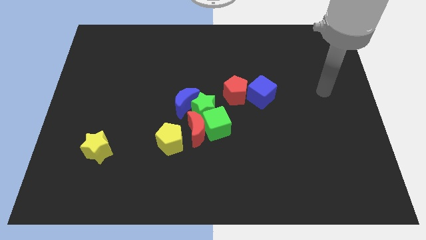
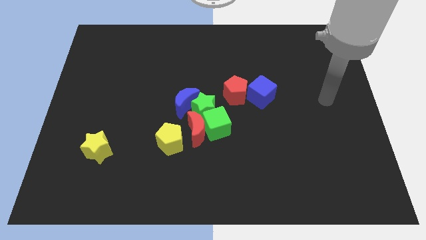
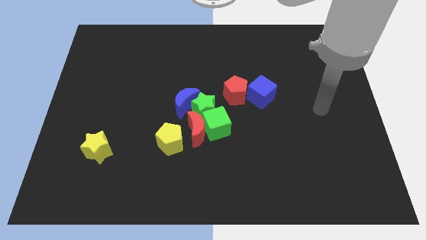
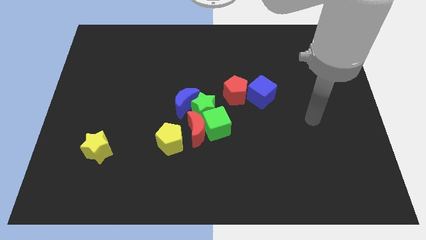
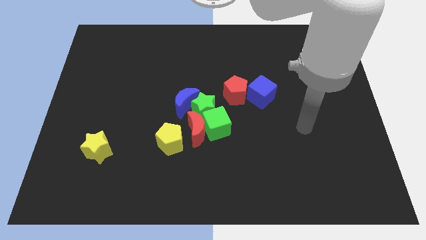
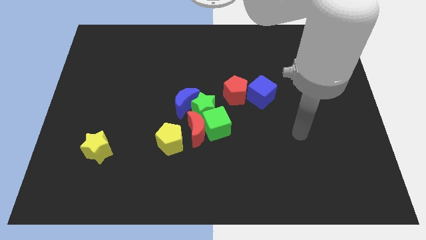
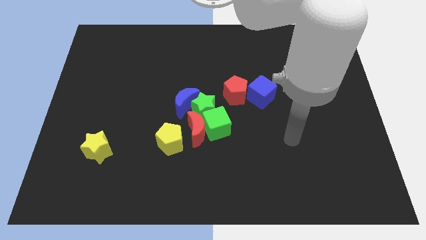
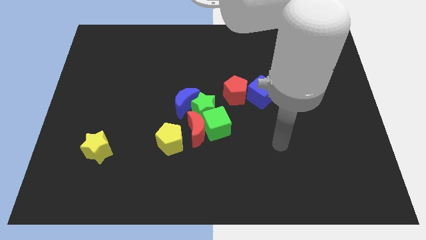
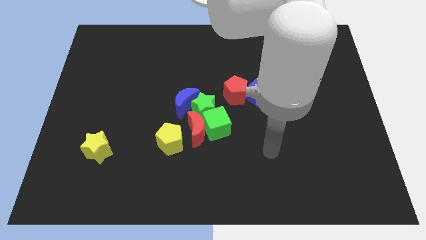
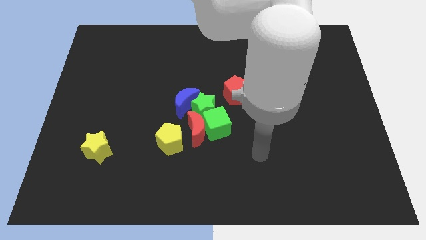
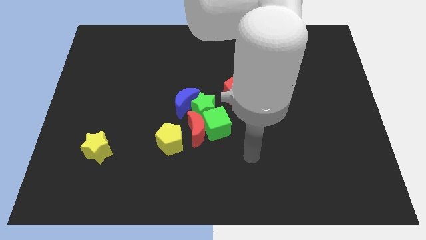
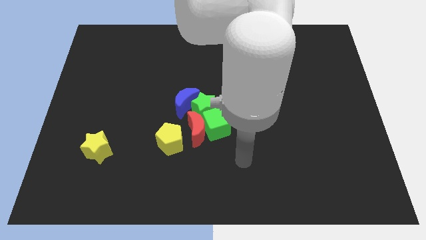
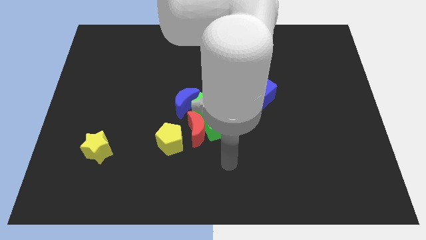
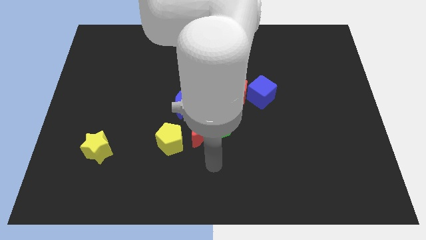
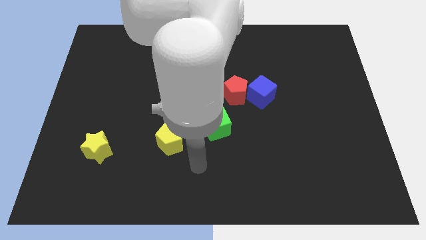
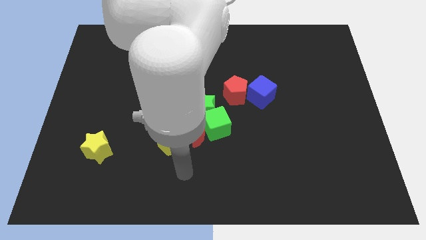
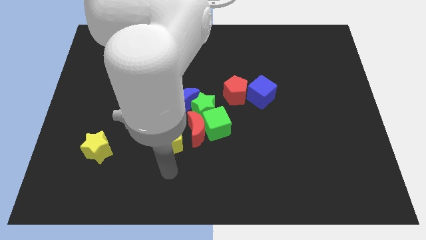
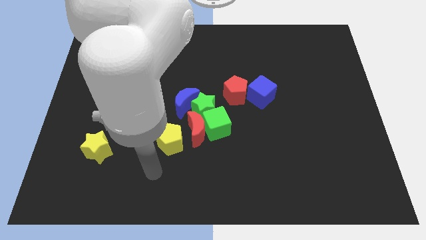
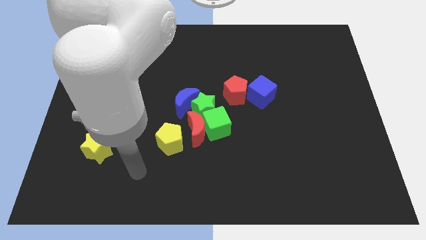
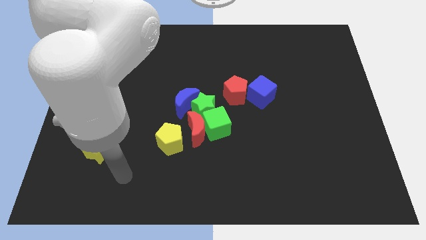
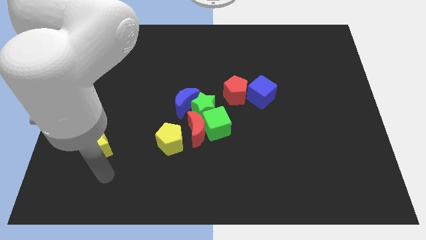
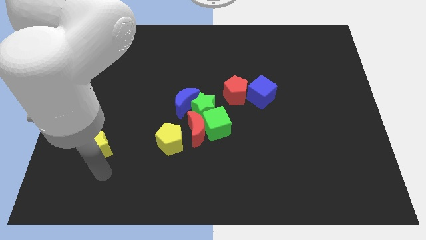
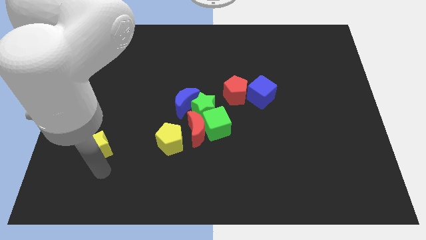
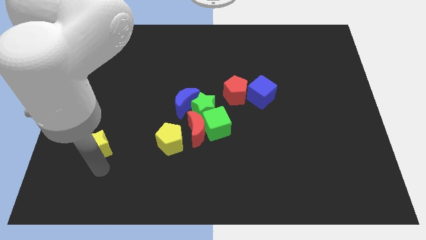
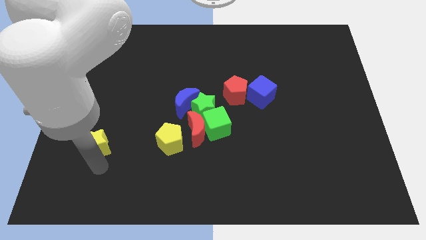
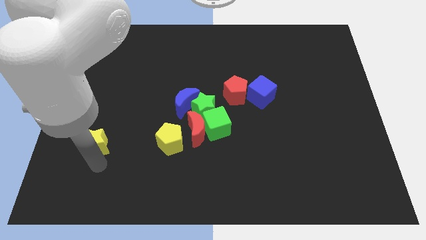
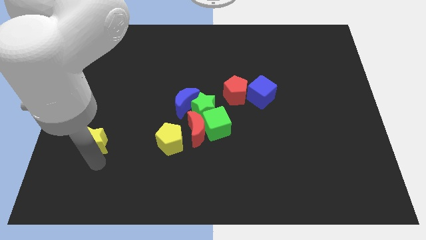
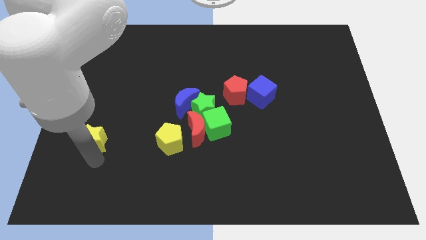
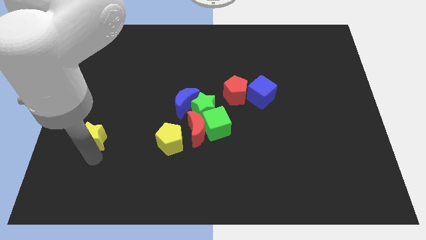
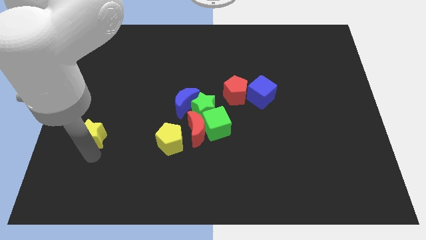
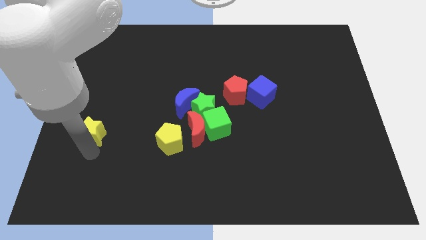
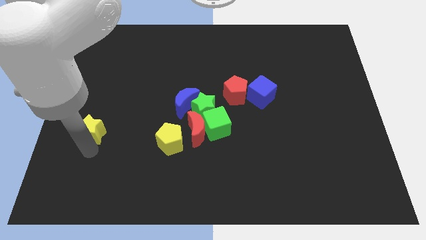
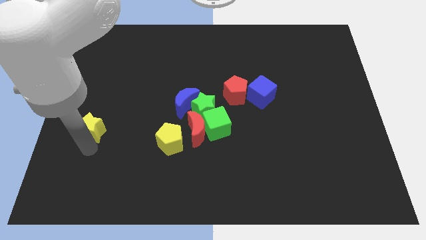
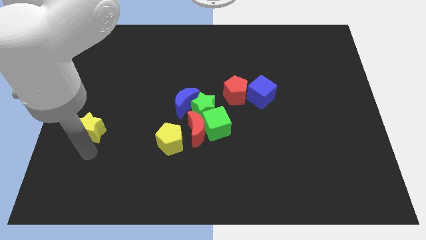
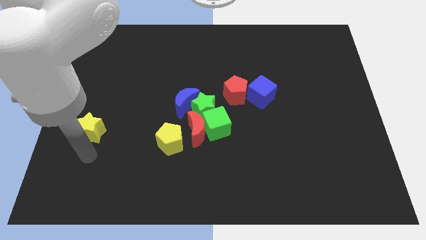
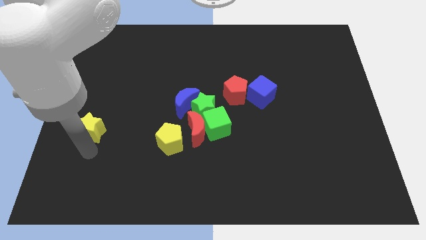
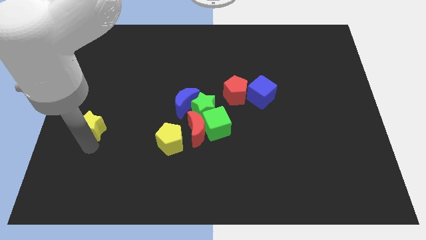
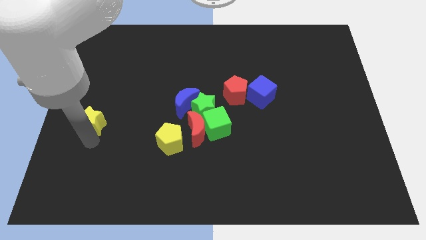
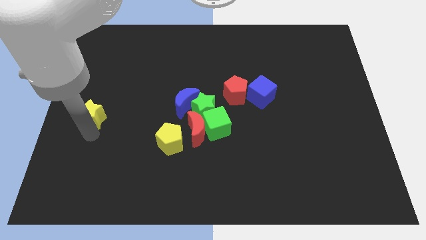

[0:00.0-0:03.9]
push the yellow star upwards a bit

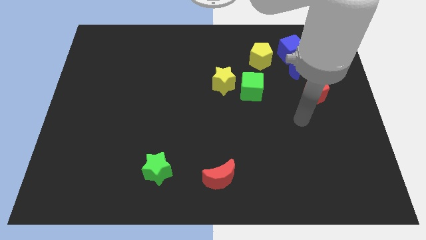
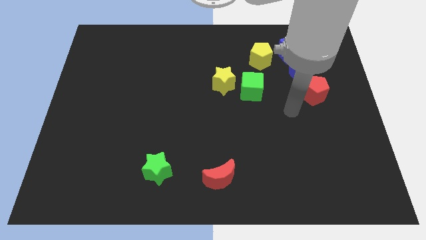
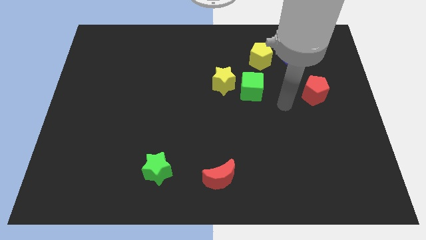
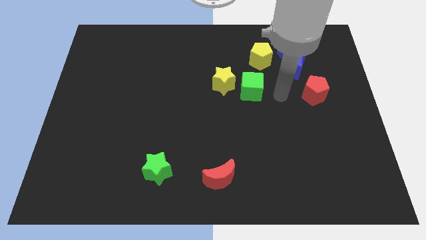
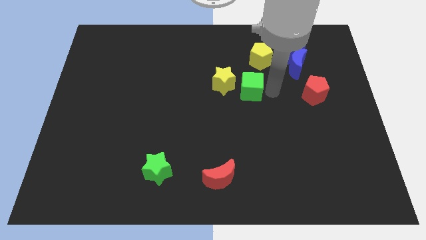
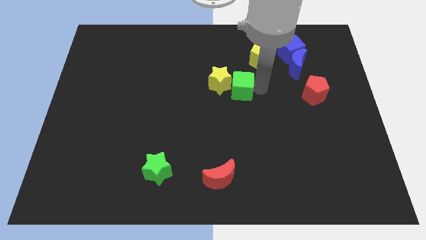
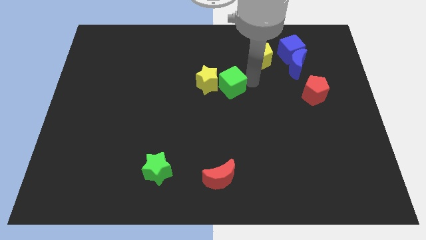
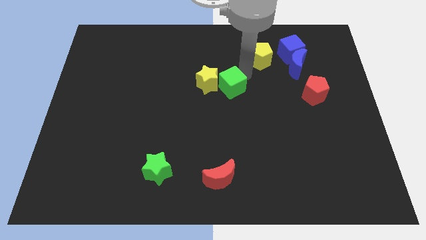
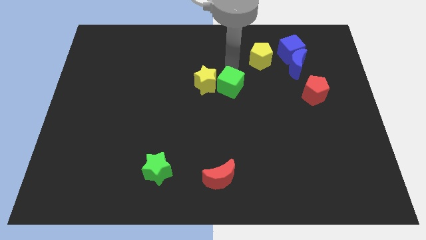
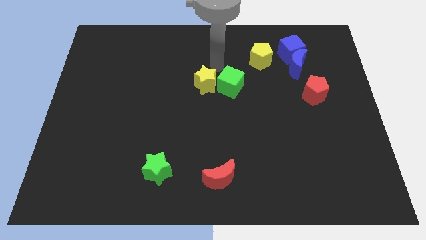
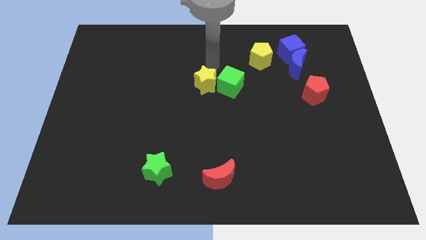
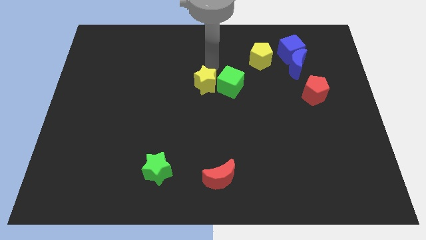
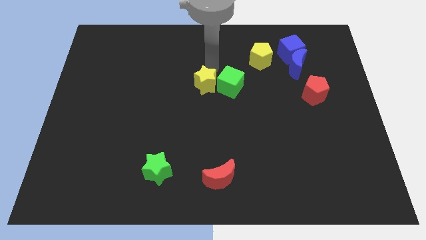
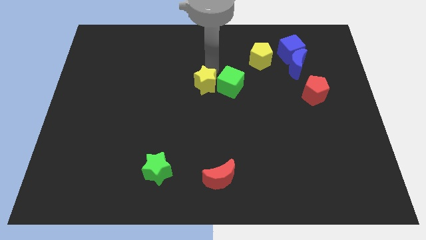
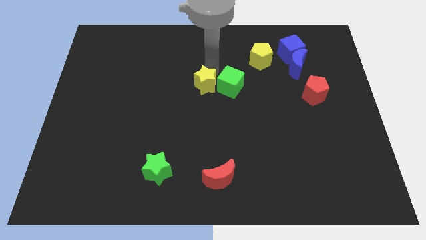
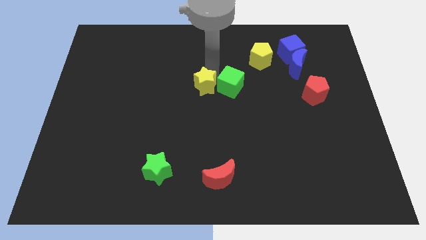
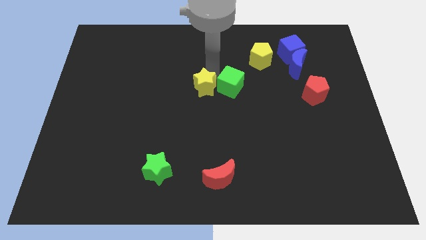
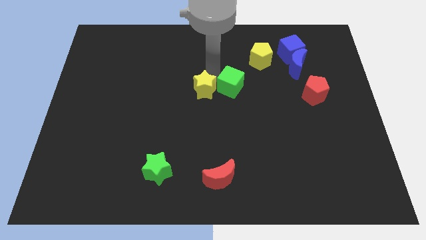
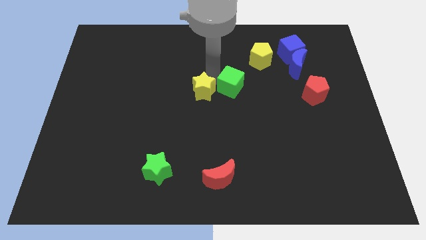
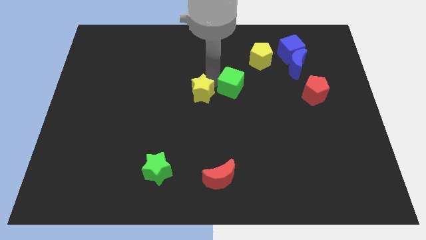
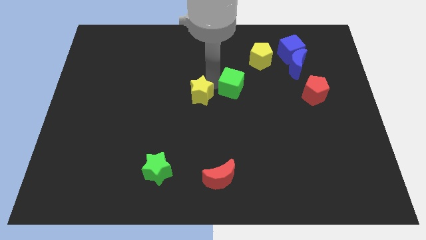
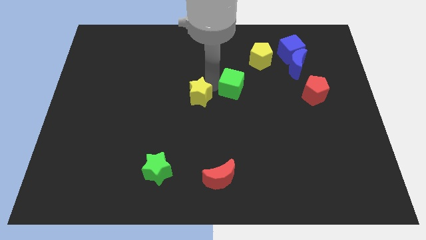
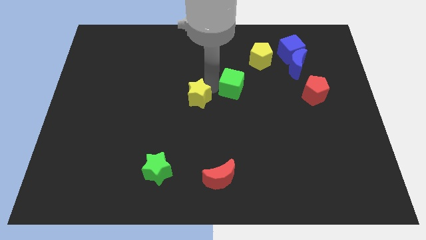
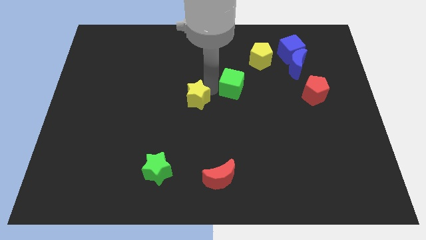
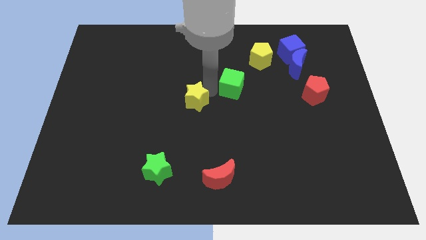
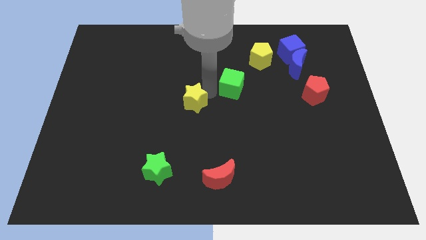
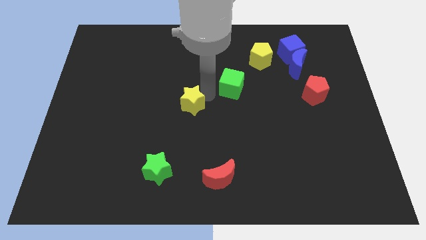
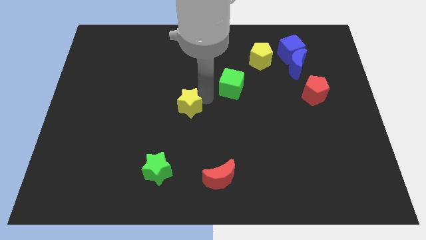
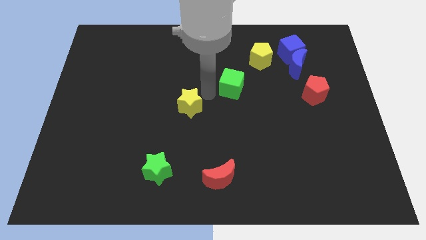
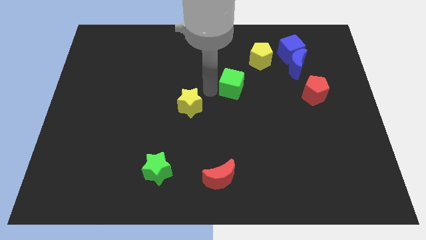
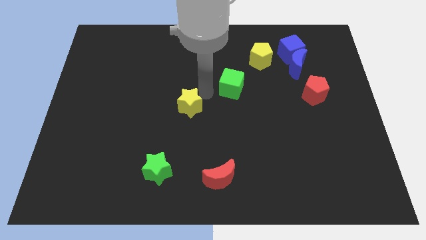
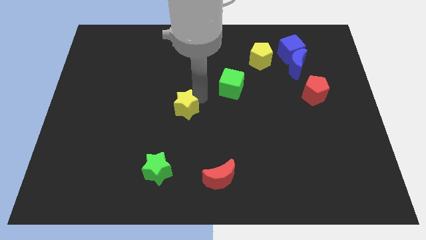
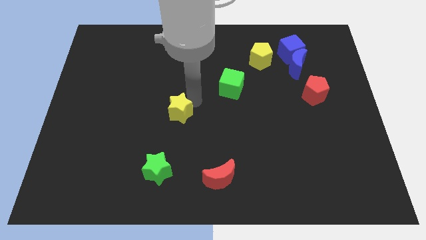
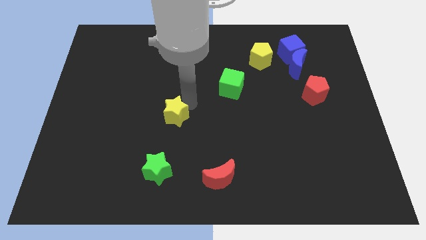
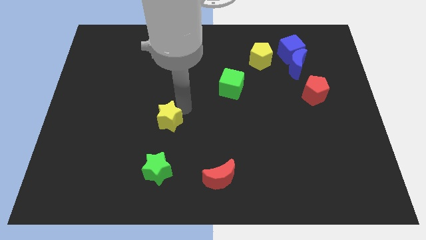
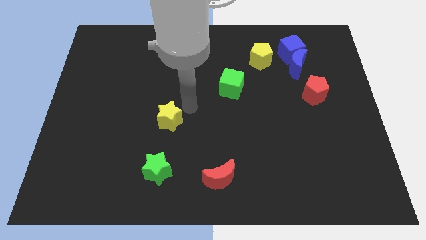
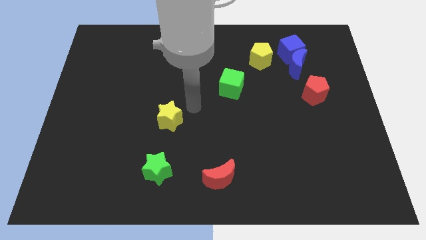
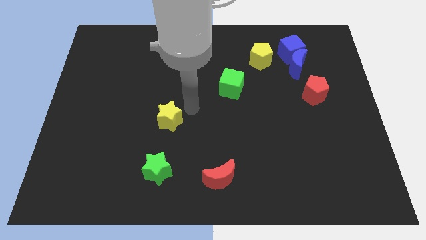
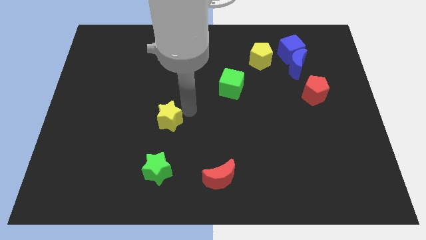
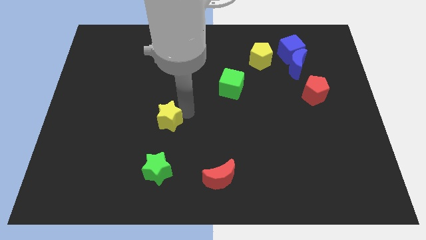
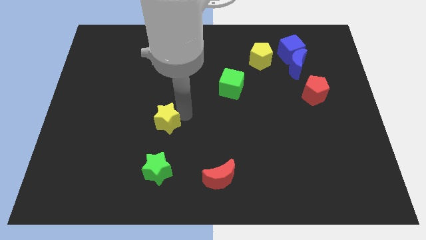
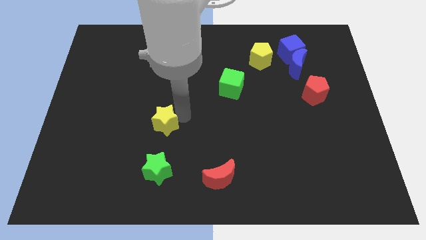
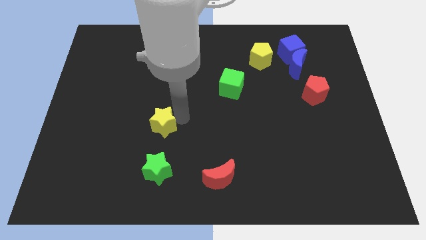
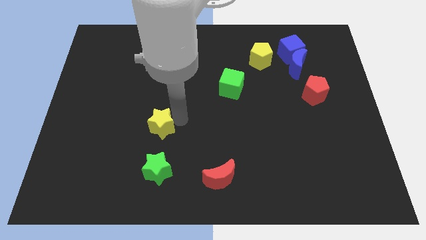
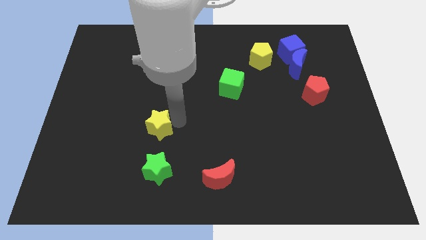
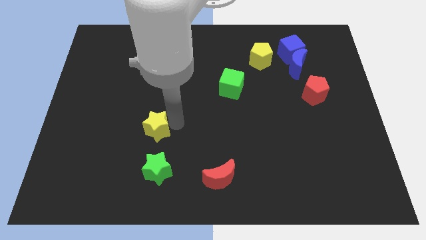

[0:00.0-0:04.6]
push the yellow star downwards and left
